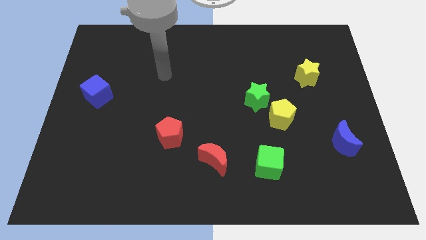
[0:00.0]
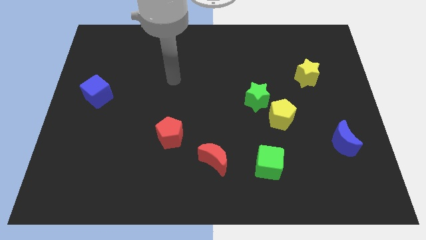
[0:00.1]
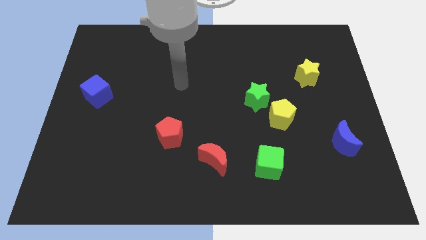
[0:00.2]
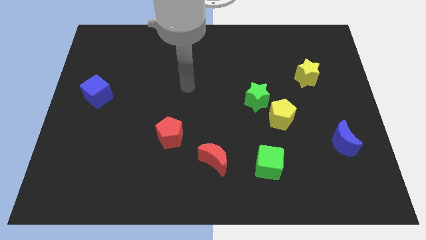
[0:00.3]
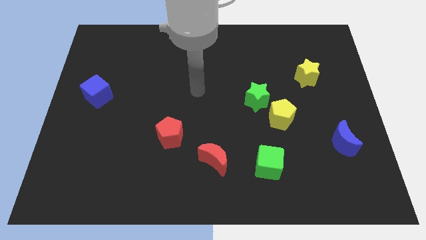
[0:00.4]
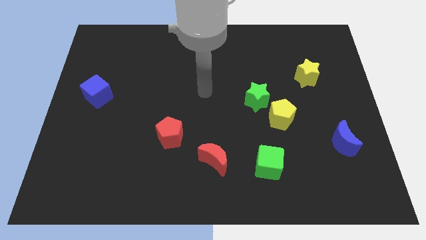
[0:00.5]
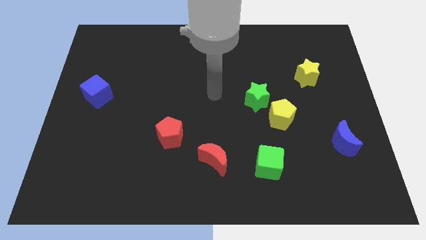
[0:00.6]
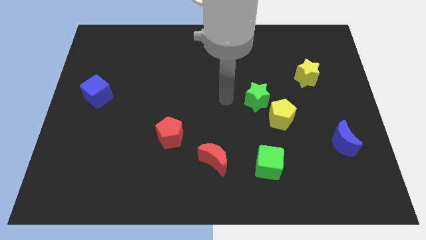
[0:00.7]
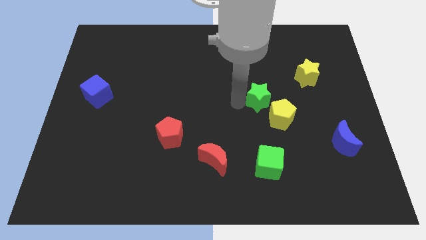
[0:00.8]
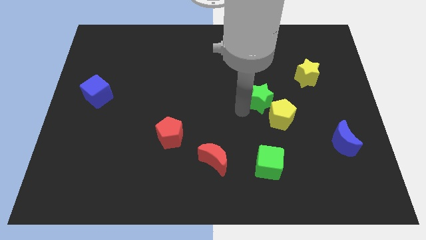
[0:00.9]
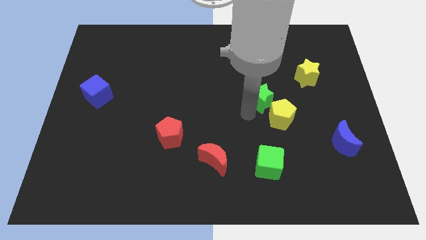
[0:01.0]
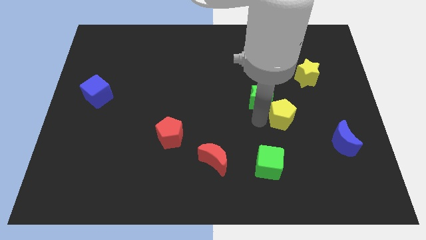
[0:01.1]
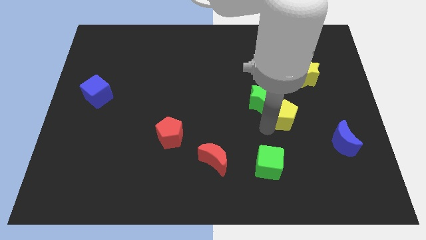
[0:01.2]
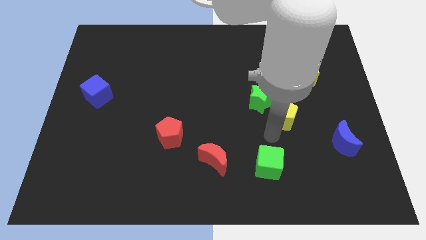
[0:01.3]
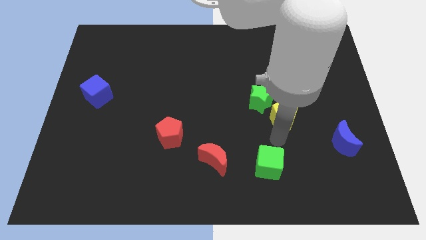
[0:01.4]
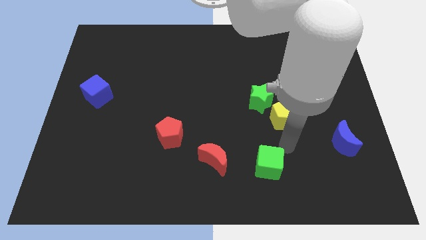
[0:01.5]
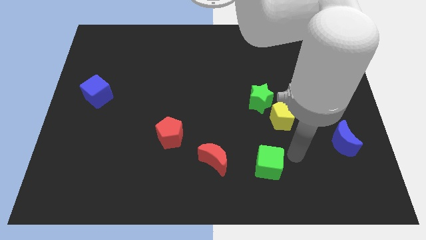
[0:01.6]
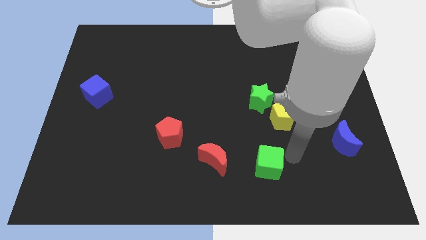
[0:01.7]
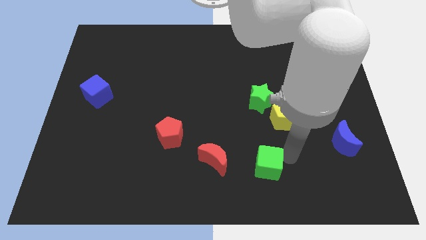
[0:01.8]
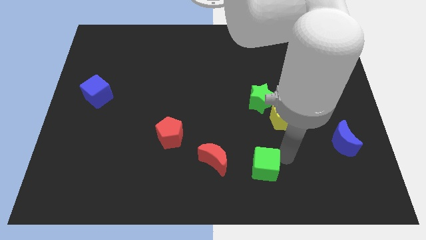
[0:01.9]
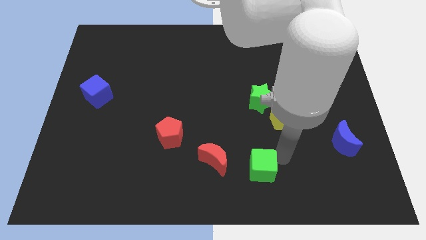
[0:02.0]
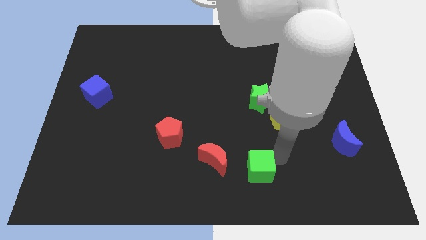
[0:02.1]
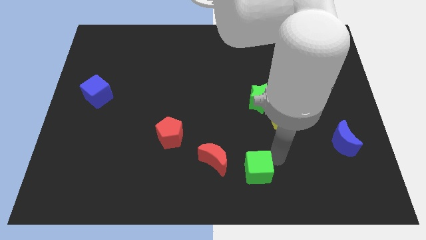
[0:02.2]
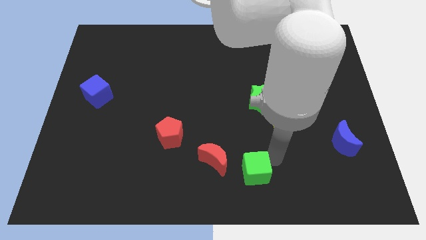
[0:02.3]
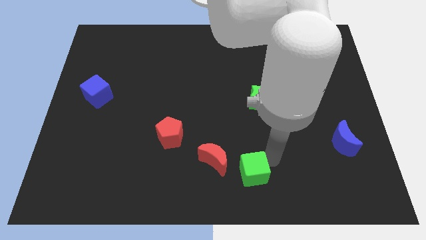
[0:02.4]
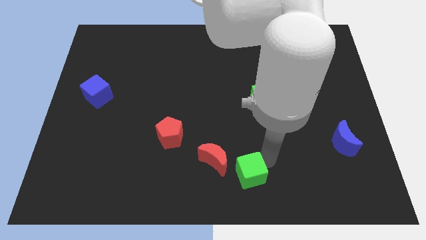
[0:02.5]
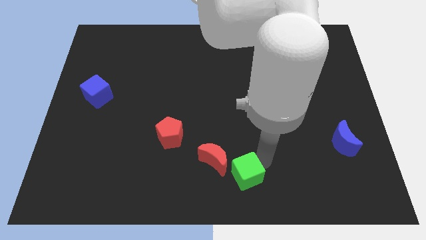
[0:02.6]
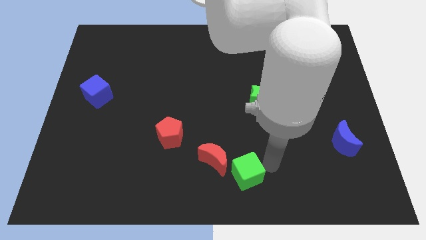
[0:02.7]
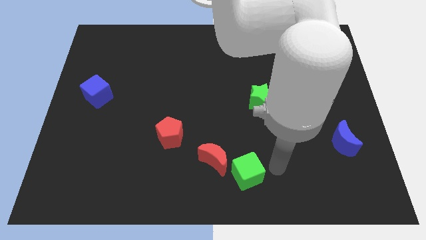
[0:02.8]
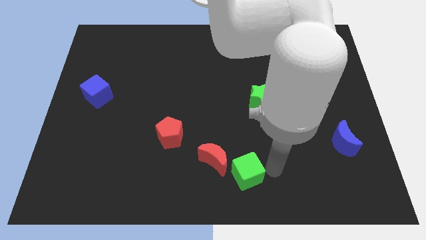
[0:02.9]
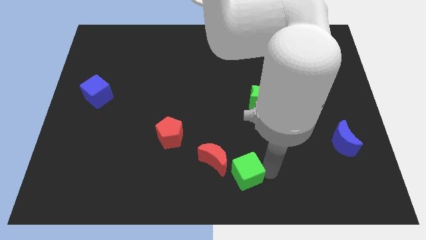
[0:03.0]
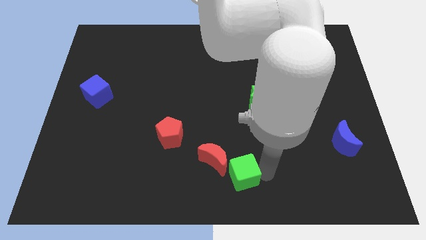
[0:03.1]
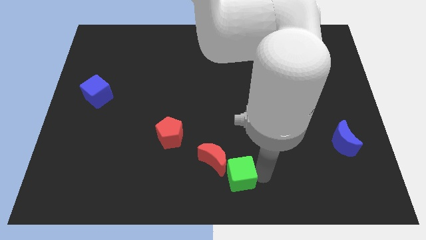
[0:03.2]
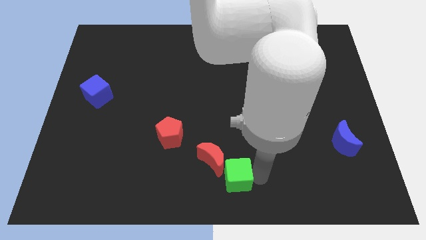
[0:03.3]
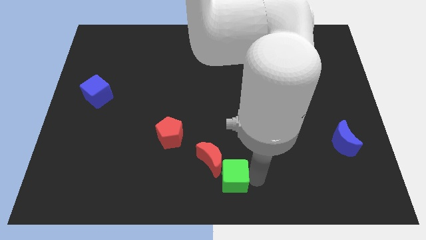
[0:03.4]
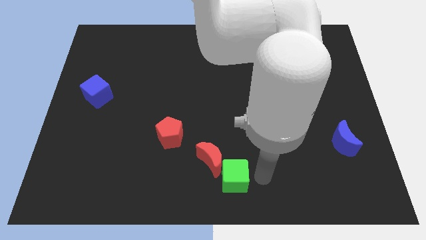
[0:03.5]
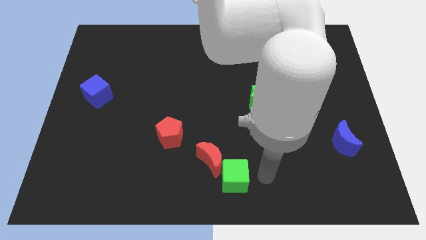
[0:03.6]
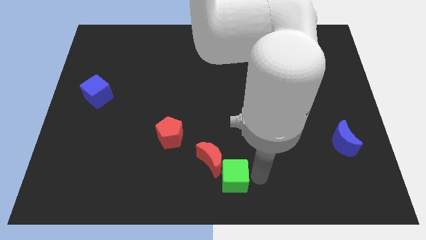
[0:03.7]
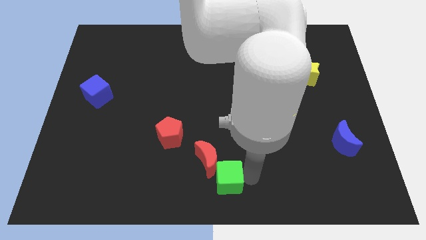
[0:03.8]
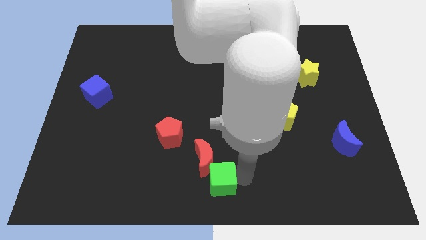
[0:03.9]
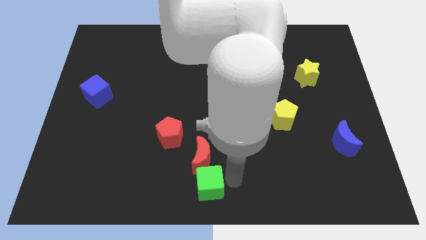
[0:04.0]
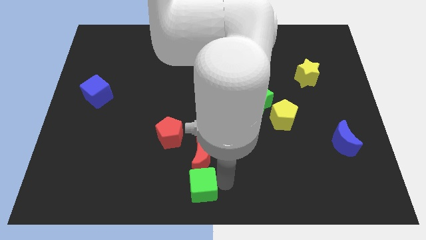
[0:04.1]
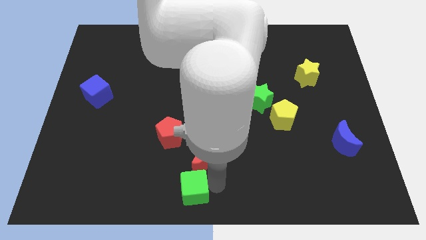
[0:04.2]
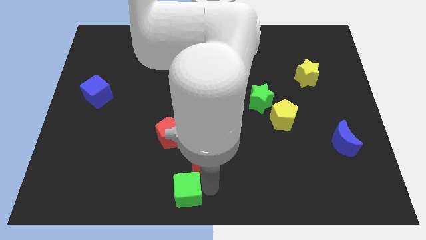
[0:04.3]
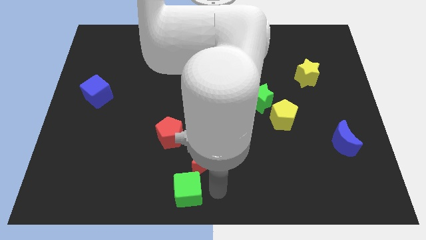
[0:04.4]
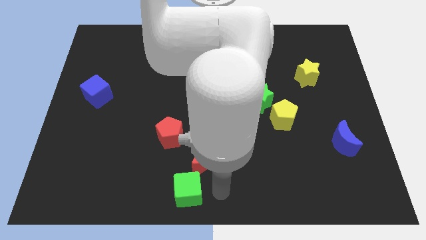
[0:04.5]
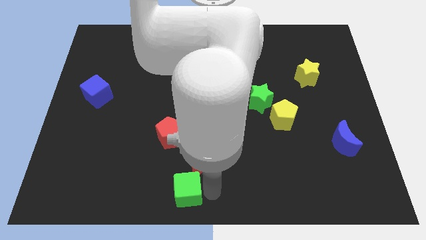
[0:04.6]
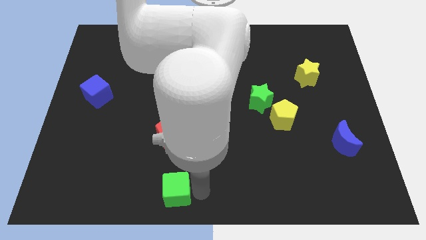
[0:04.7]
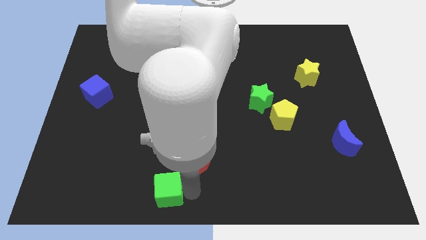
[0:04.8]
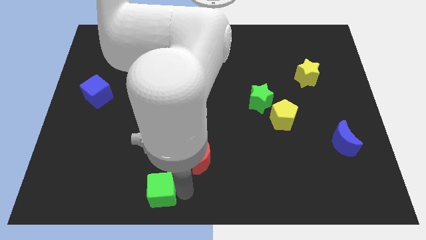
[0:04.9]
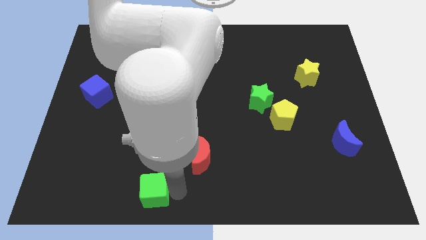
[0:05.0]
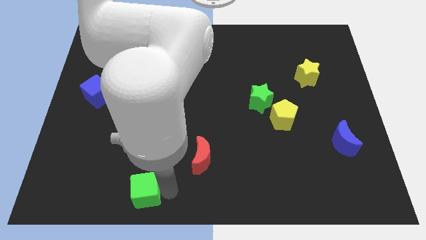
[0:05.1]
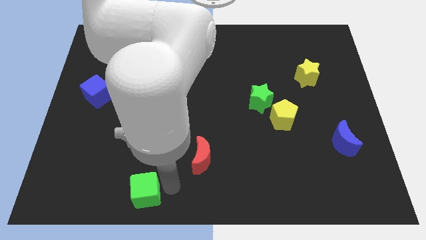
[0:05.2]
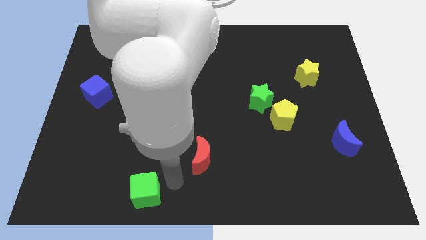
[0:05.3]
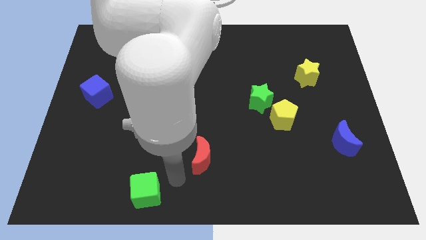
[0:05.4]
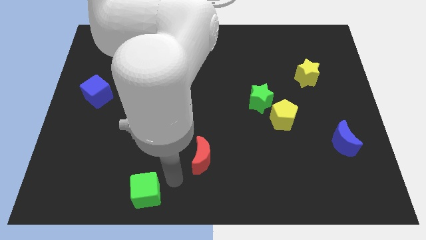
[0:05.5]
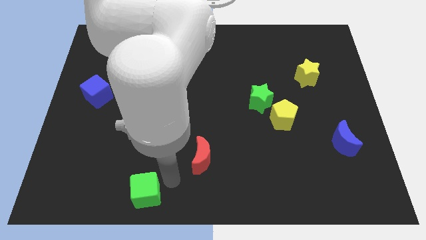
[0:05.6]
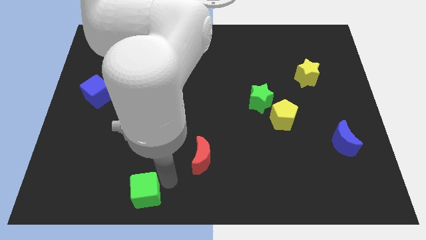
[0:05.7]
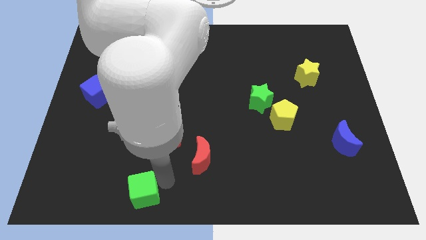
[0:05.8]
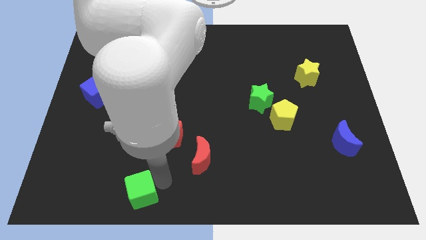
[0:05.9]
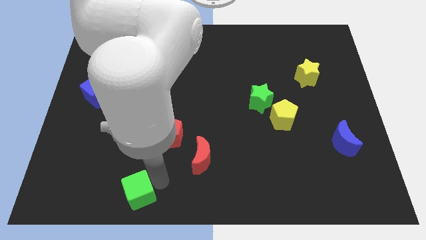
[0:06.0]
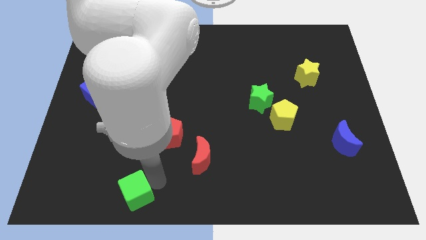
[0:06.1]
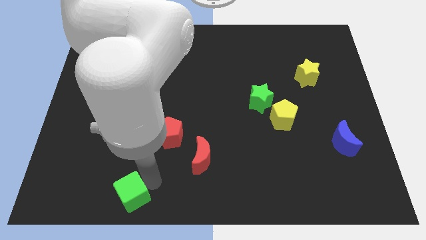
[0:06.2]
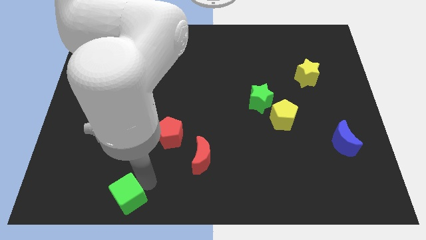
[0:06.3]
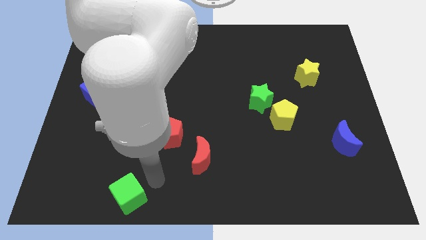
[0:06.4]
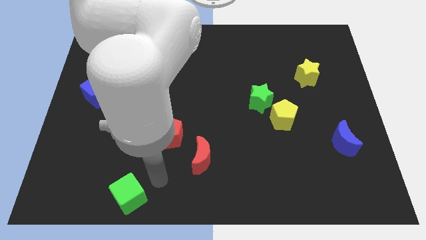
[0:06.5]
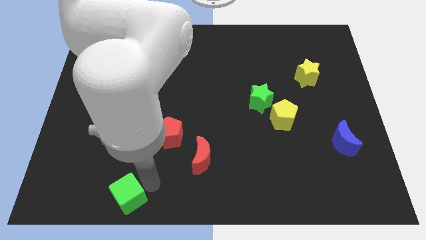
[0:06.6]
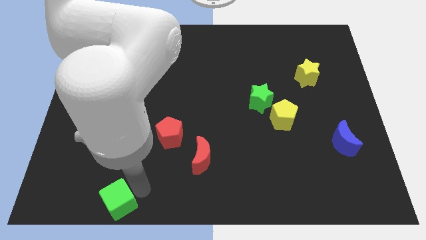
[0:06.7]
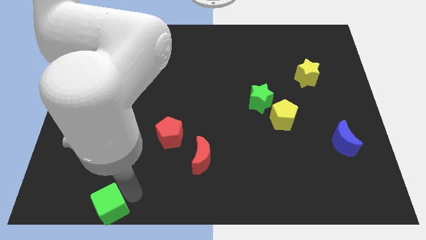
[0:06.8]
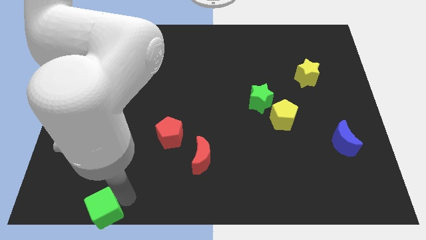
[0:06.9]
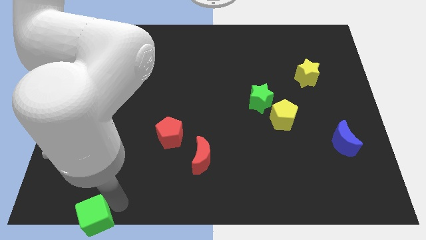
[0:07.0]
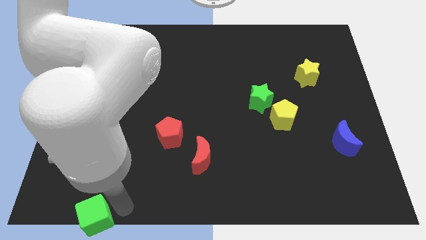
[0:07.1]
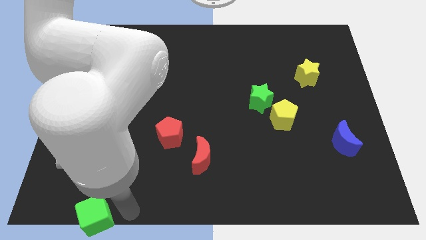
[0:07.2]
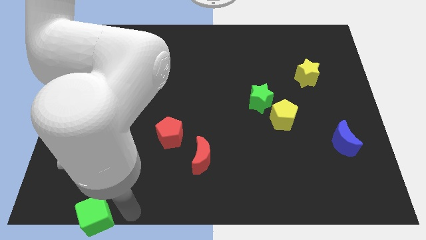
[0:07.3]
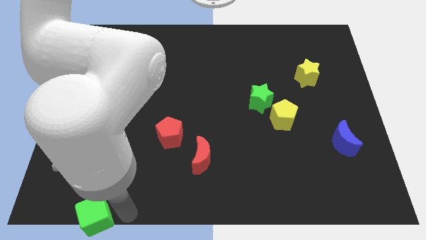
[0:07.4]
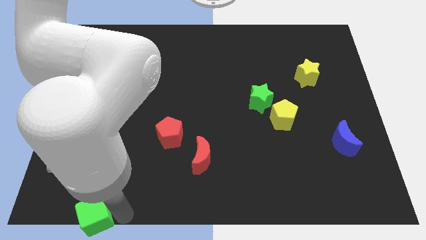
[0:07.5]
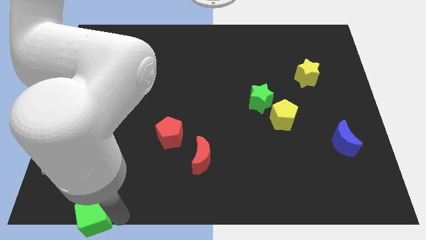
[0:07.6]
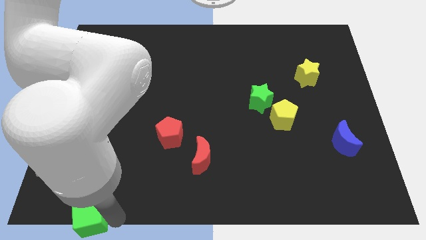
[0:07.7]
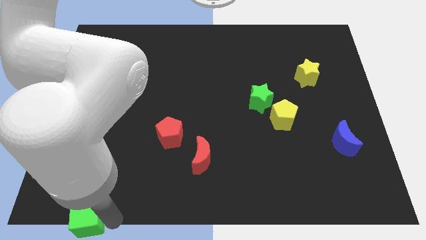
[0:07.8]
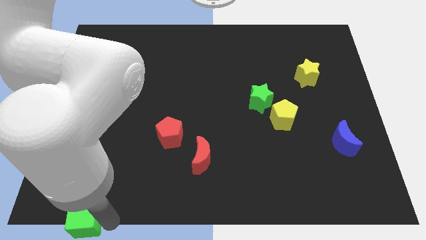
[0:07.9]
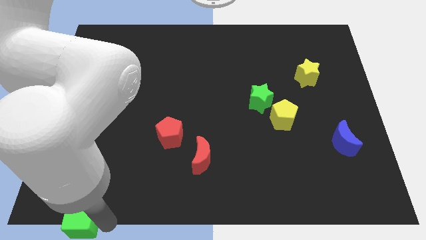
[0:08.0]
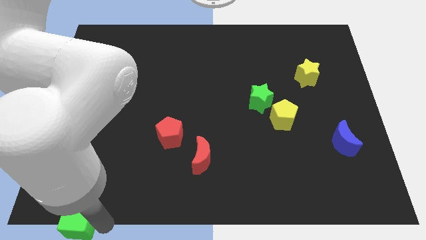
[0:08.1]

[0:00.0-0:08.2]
slide the green cube to the bottom left corner
